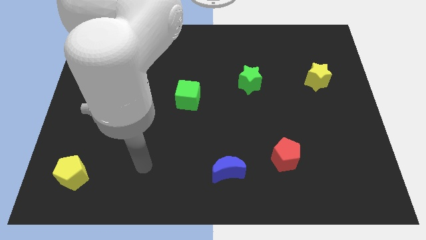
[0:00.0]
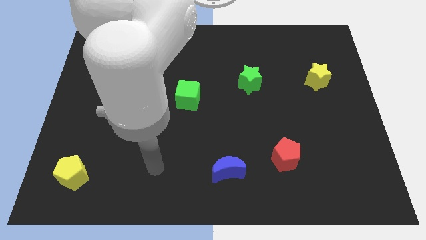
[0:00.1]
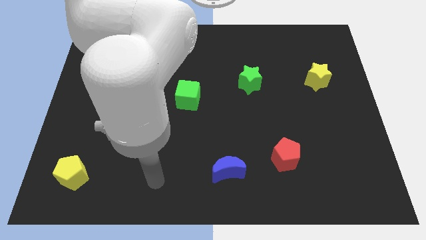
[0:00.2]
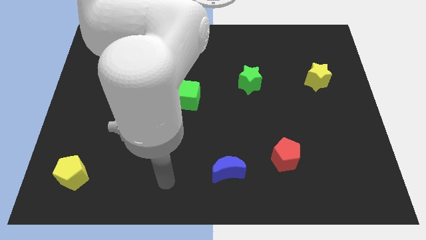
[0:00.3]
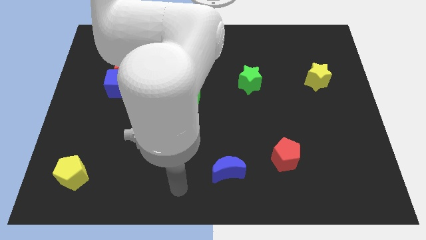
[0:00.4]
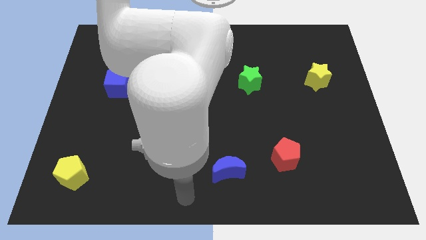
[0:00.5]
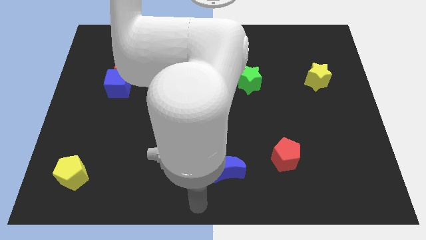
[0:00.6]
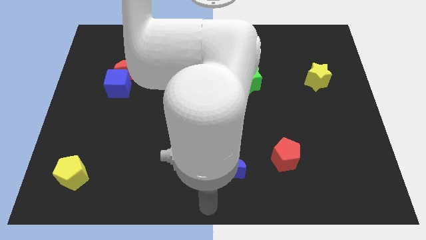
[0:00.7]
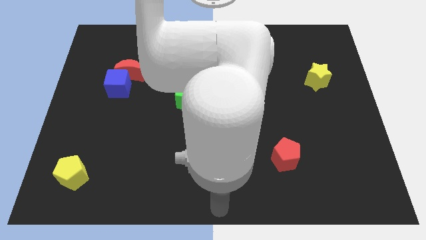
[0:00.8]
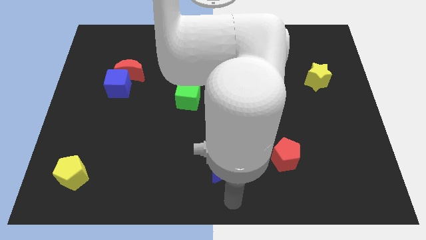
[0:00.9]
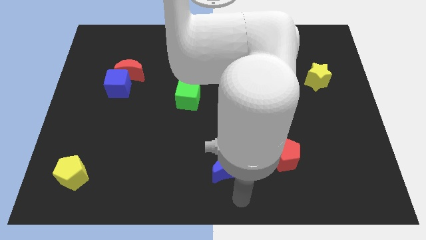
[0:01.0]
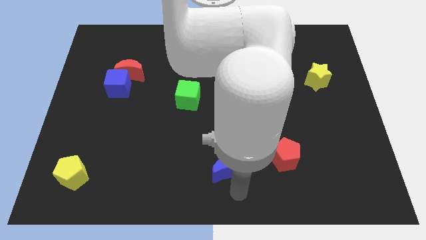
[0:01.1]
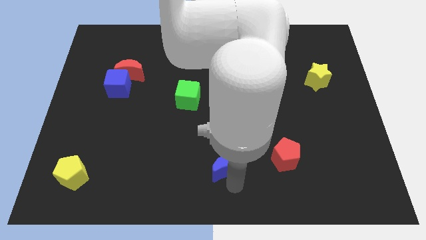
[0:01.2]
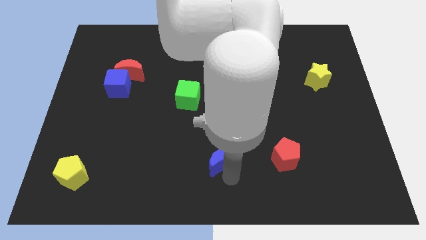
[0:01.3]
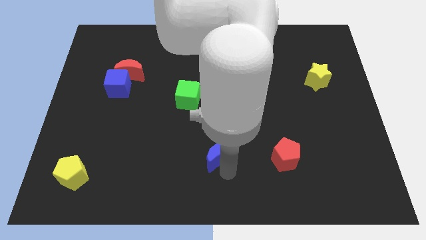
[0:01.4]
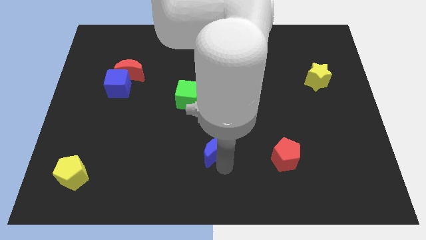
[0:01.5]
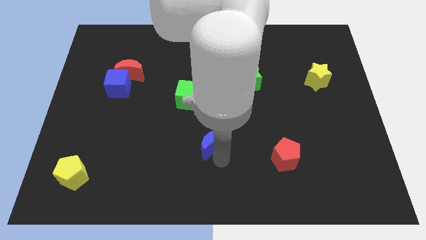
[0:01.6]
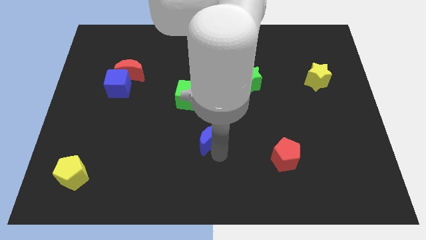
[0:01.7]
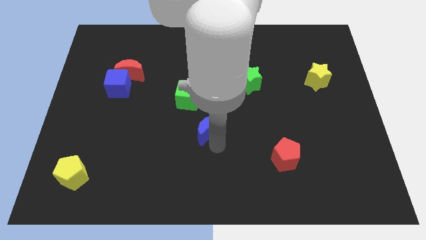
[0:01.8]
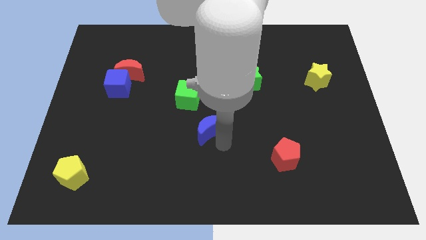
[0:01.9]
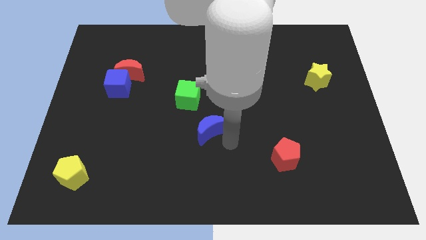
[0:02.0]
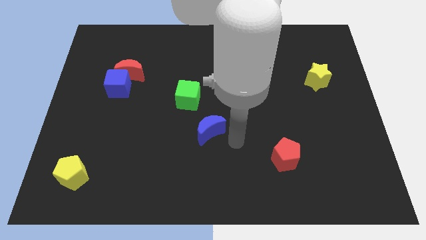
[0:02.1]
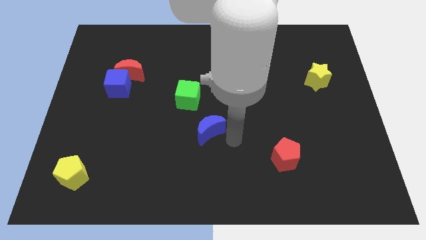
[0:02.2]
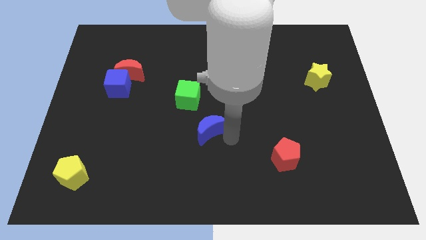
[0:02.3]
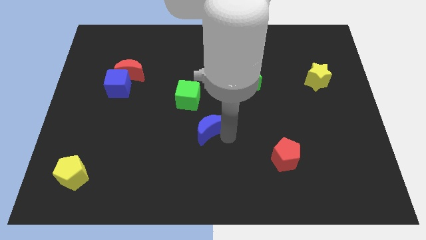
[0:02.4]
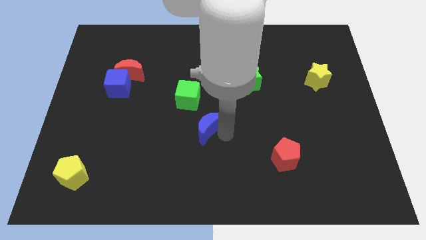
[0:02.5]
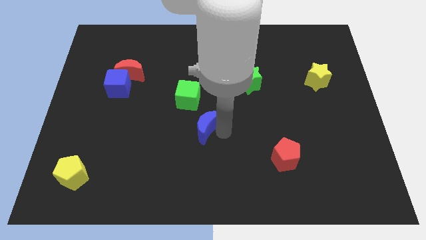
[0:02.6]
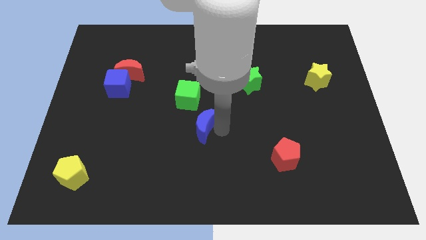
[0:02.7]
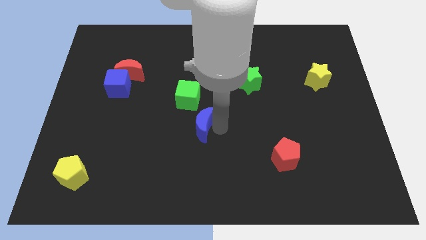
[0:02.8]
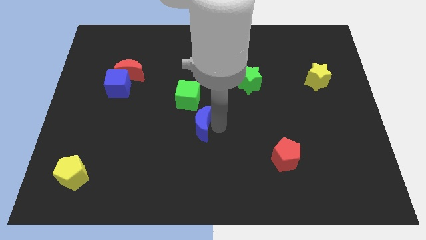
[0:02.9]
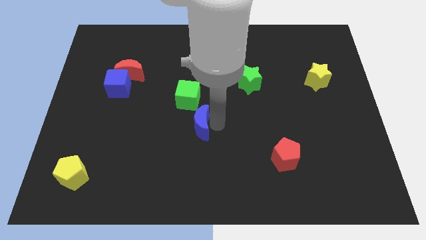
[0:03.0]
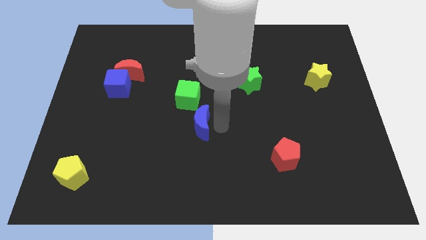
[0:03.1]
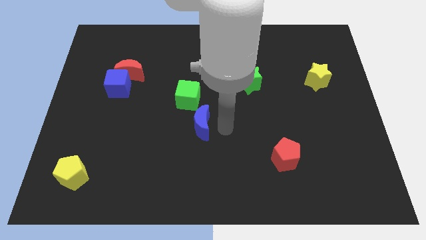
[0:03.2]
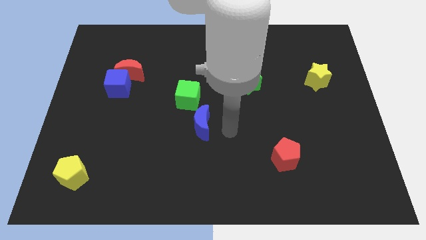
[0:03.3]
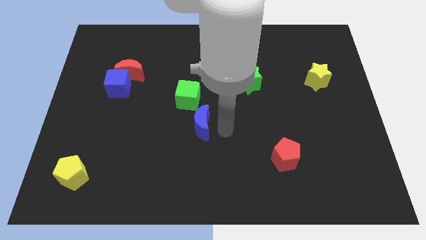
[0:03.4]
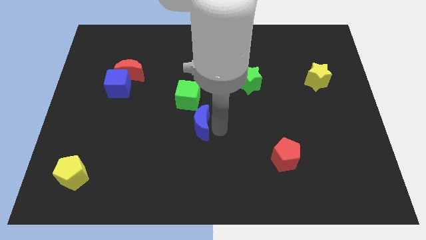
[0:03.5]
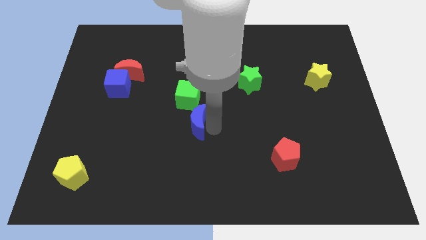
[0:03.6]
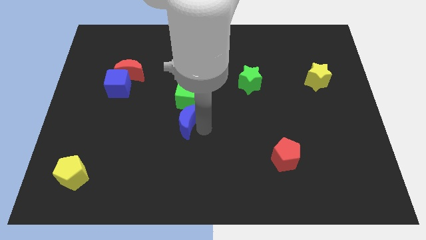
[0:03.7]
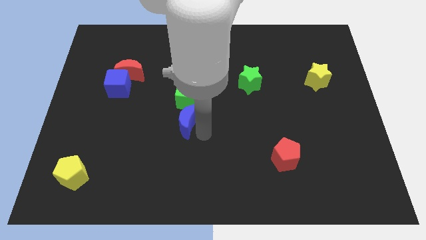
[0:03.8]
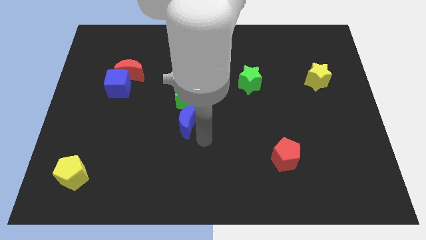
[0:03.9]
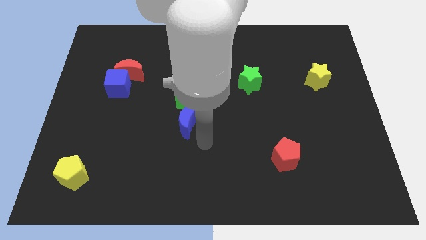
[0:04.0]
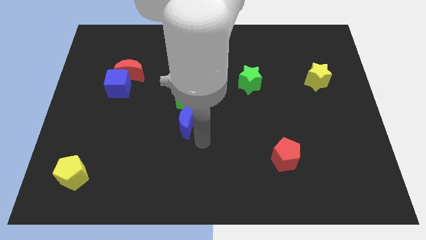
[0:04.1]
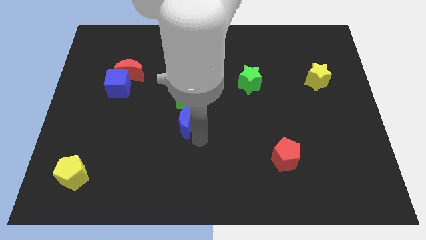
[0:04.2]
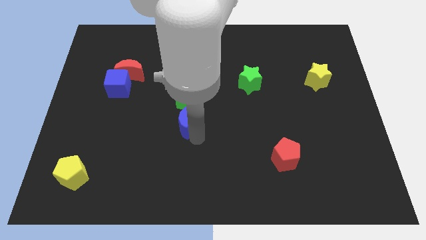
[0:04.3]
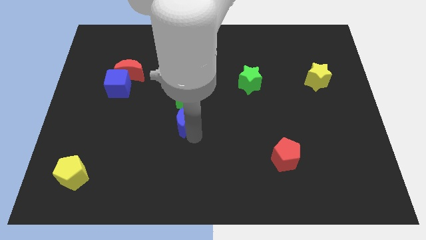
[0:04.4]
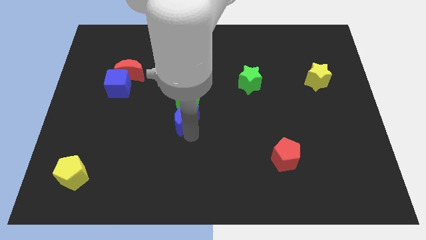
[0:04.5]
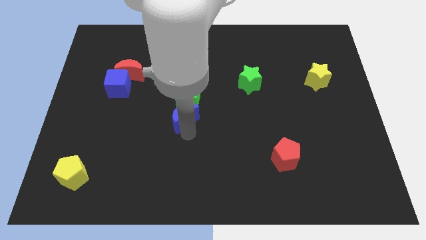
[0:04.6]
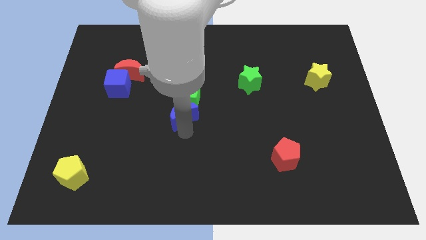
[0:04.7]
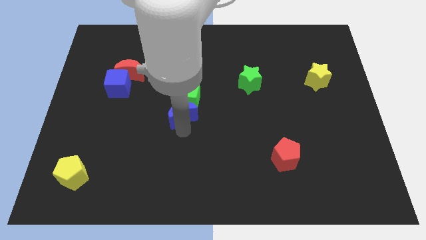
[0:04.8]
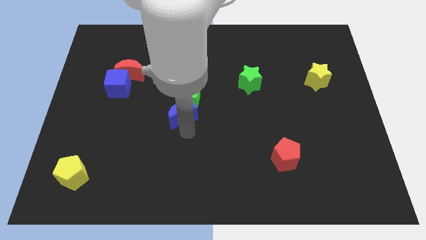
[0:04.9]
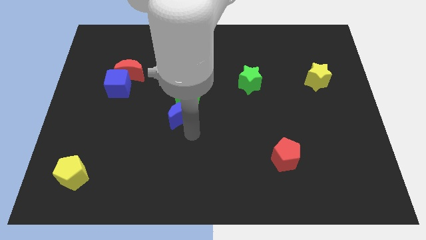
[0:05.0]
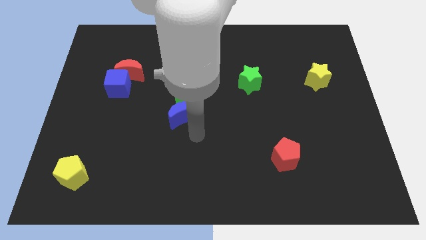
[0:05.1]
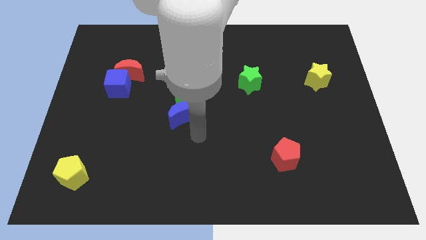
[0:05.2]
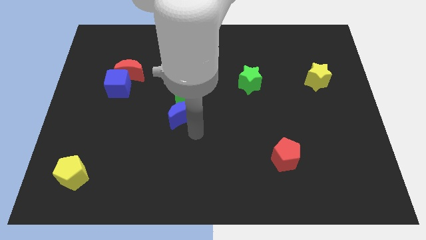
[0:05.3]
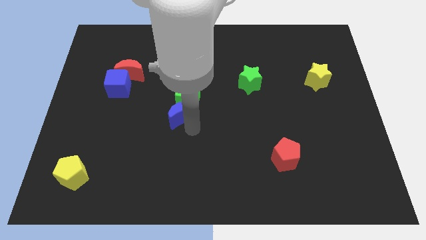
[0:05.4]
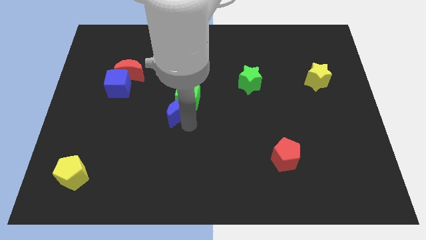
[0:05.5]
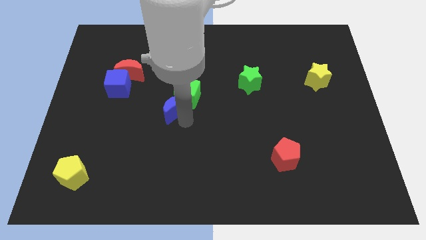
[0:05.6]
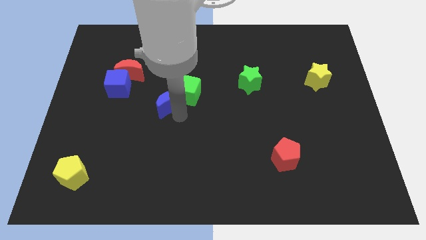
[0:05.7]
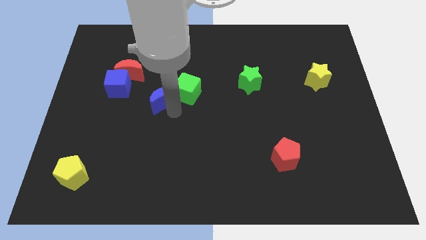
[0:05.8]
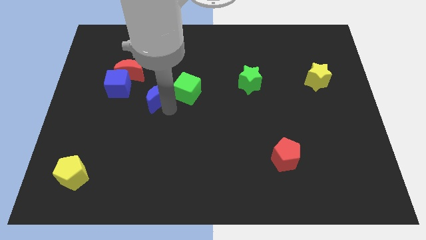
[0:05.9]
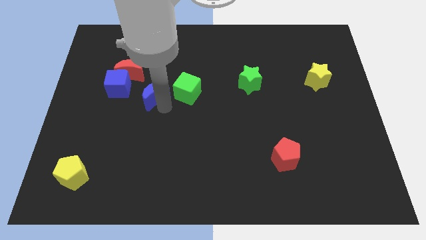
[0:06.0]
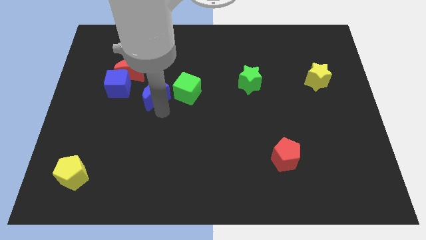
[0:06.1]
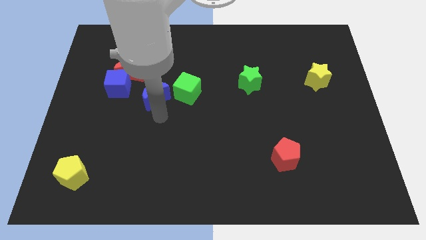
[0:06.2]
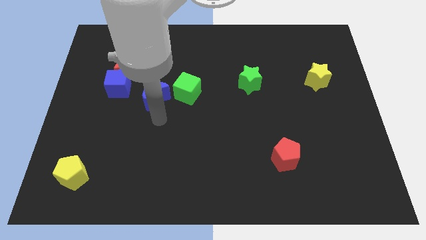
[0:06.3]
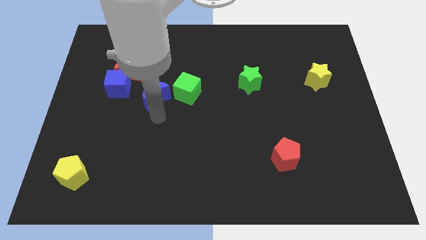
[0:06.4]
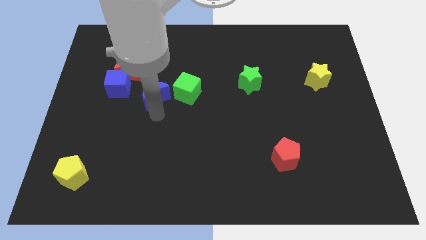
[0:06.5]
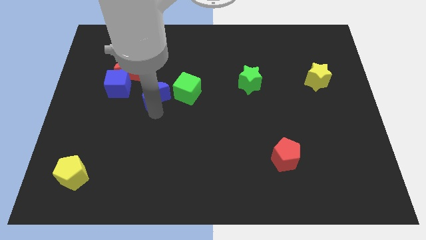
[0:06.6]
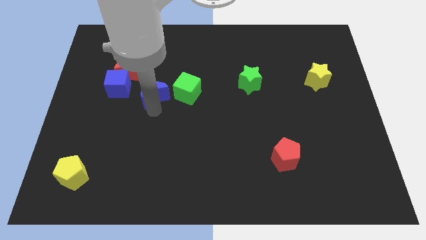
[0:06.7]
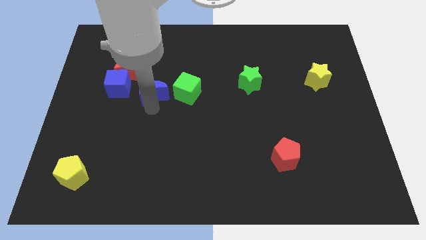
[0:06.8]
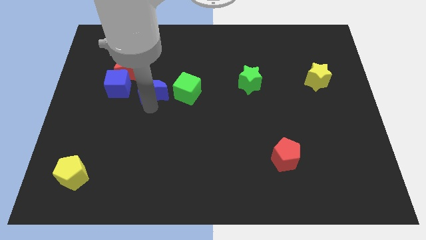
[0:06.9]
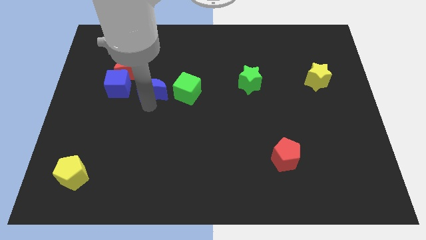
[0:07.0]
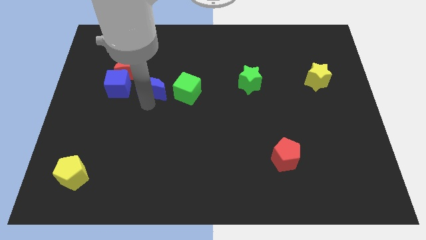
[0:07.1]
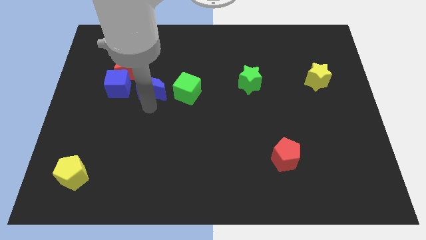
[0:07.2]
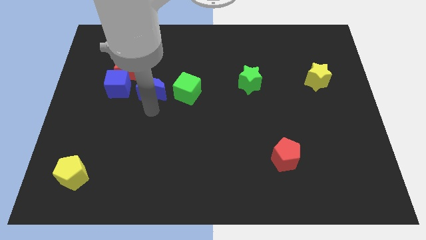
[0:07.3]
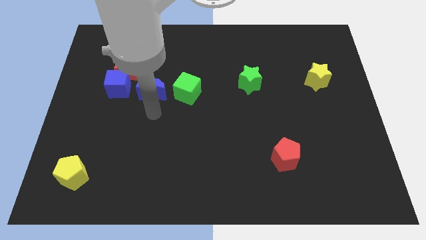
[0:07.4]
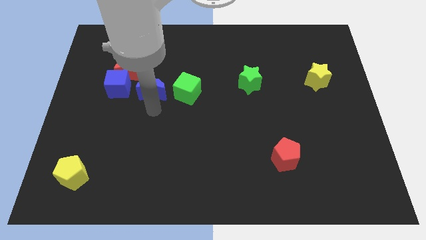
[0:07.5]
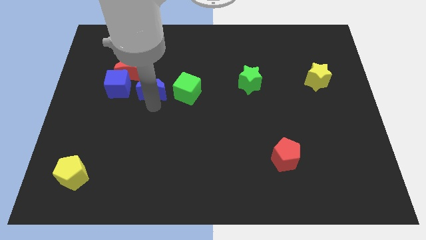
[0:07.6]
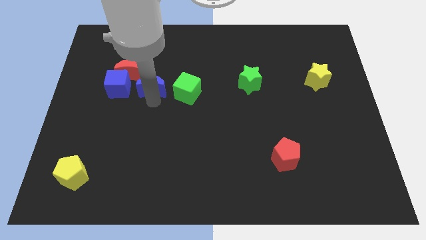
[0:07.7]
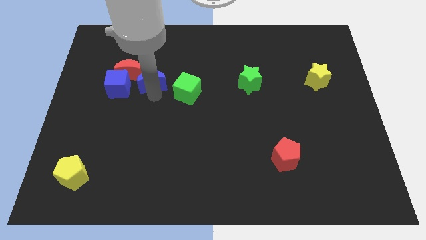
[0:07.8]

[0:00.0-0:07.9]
put the blue moon diagonally up and to the right of the blue cube
